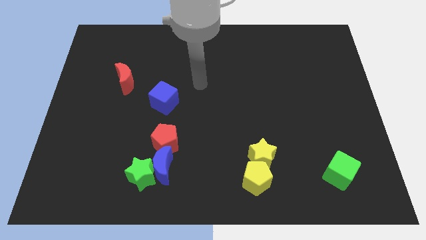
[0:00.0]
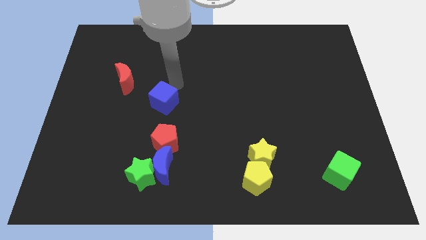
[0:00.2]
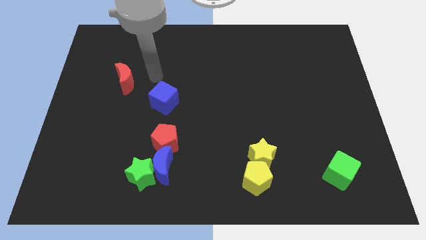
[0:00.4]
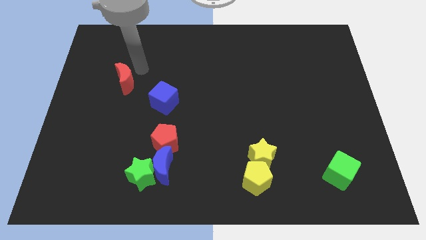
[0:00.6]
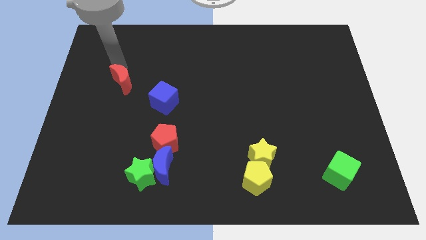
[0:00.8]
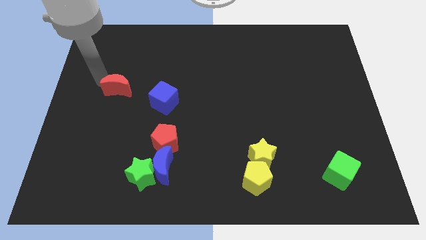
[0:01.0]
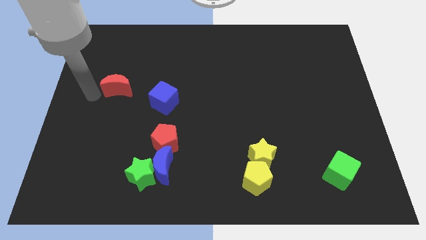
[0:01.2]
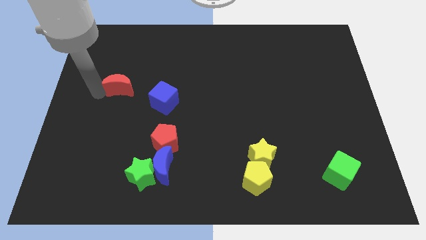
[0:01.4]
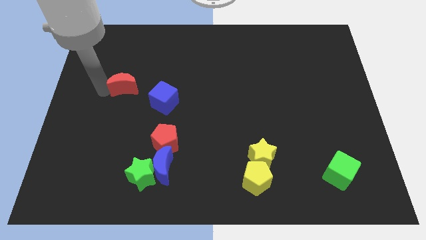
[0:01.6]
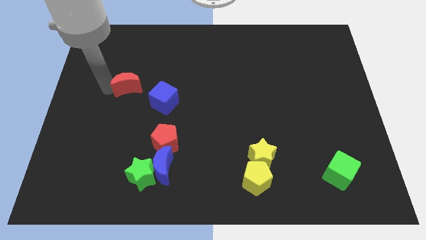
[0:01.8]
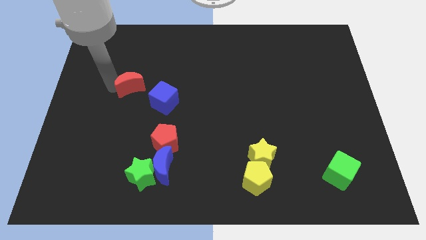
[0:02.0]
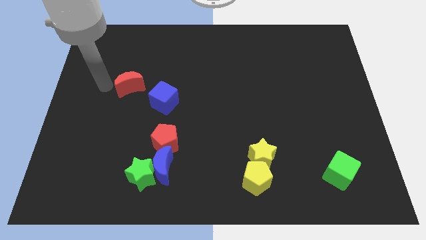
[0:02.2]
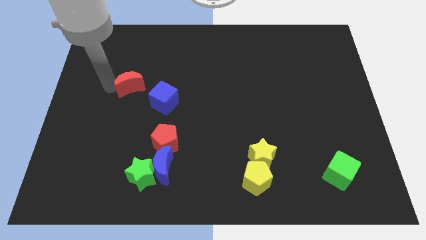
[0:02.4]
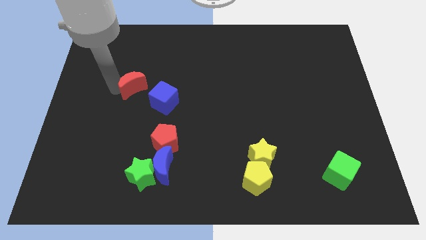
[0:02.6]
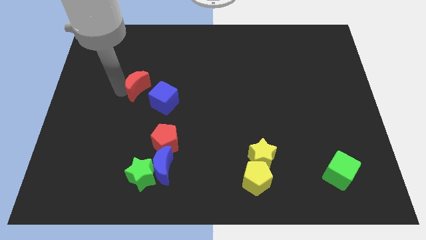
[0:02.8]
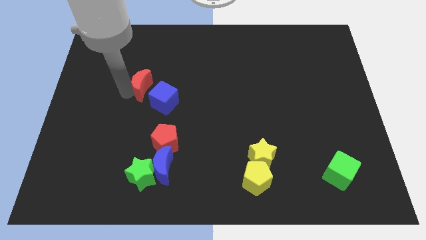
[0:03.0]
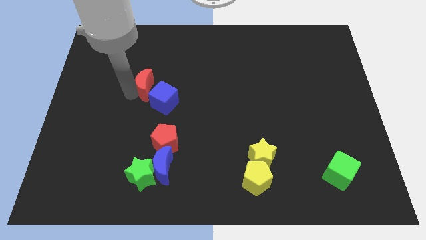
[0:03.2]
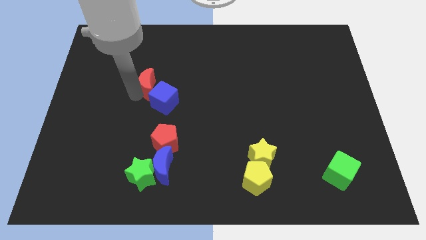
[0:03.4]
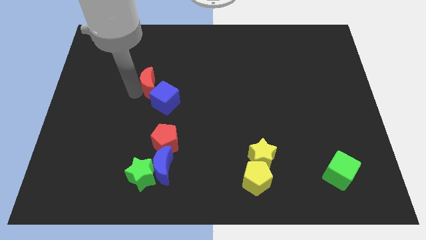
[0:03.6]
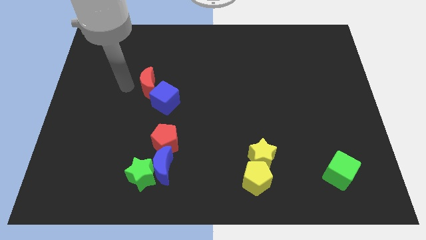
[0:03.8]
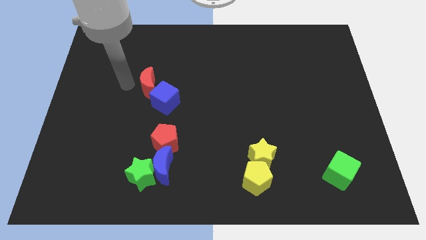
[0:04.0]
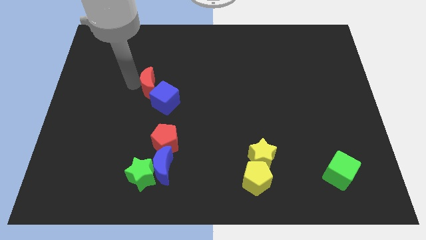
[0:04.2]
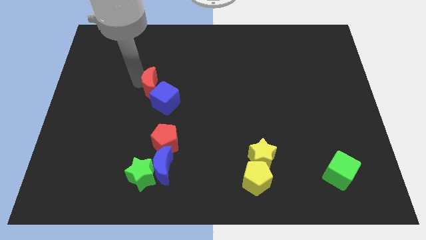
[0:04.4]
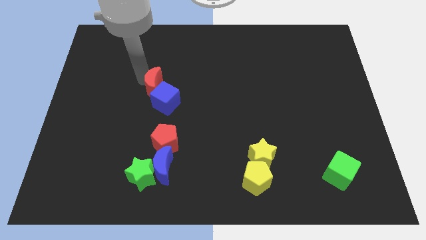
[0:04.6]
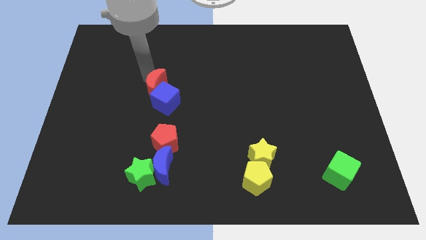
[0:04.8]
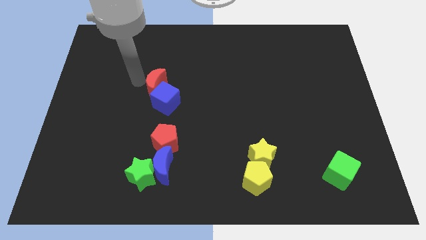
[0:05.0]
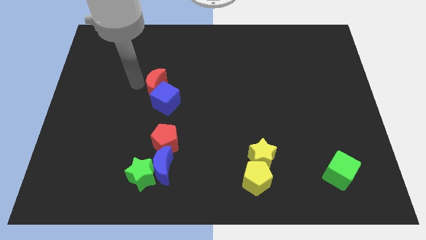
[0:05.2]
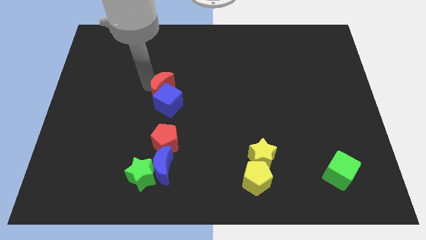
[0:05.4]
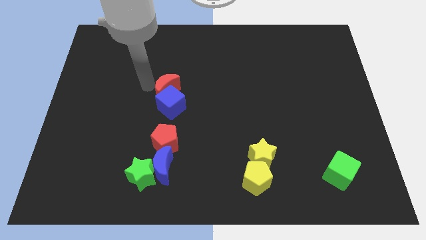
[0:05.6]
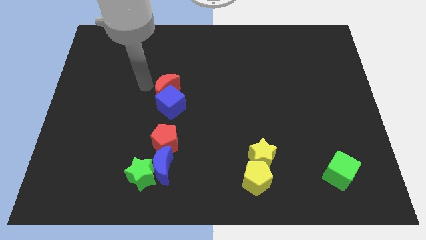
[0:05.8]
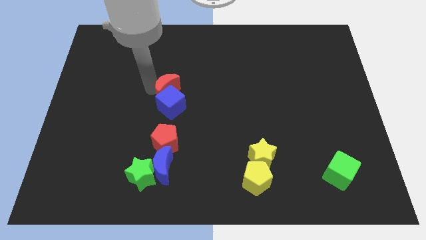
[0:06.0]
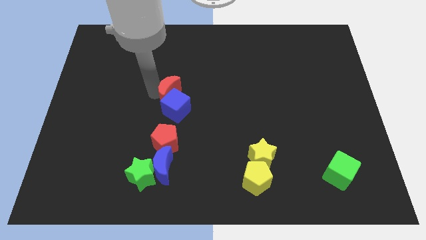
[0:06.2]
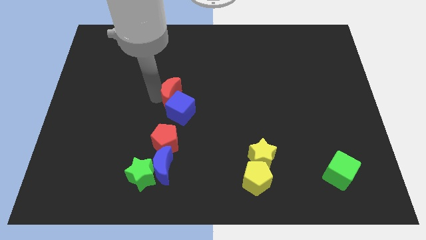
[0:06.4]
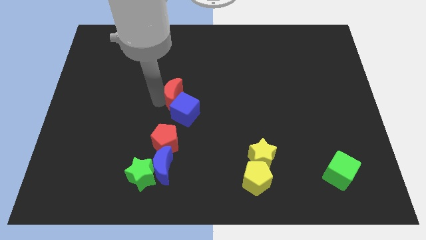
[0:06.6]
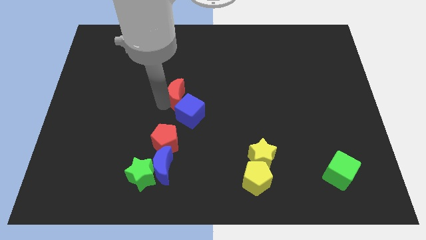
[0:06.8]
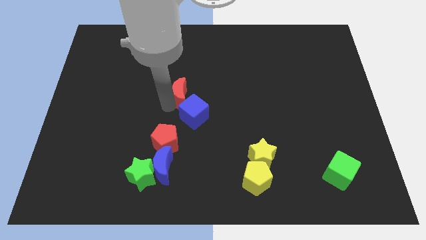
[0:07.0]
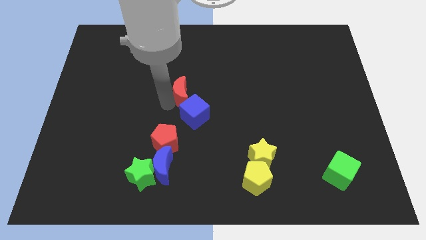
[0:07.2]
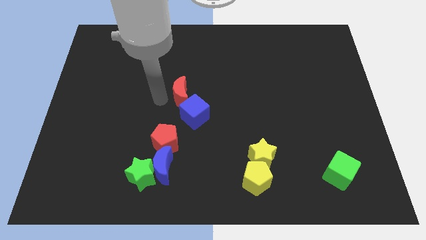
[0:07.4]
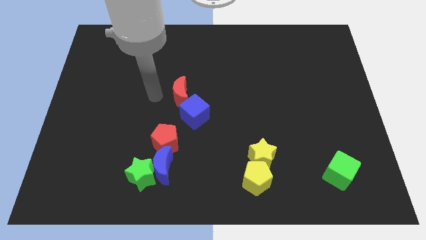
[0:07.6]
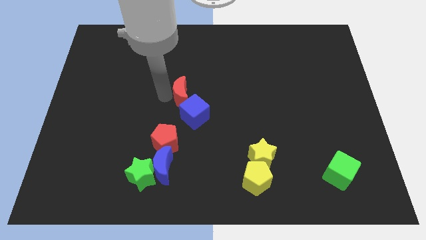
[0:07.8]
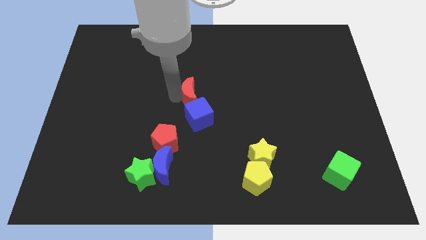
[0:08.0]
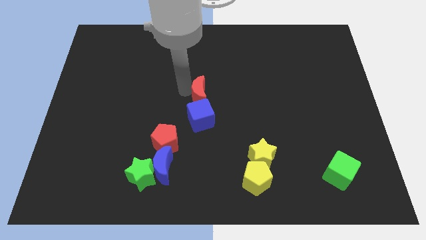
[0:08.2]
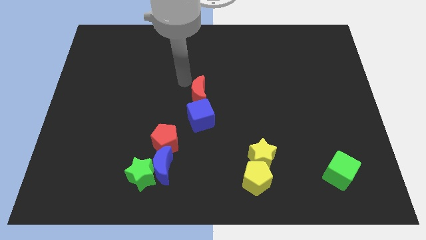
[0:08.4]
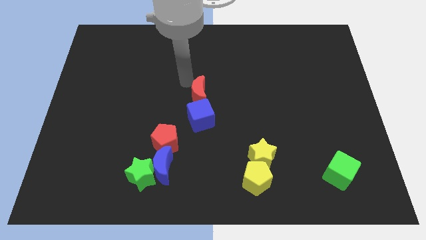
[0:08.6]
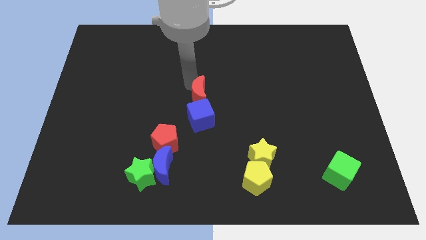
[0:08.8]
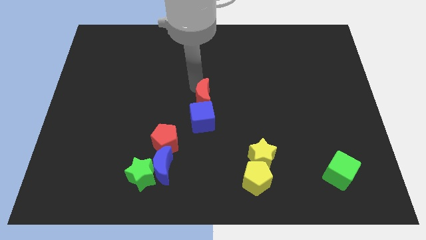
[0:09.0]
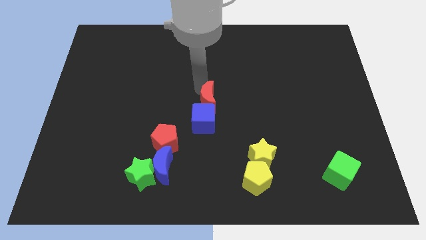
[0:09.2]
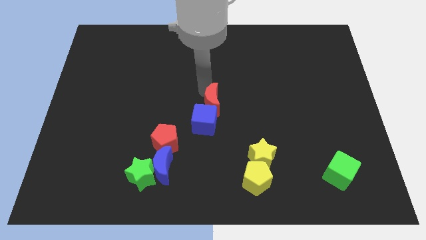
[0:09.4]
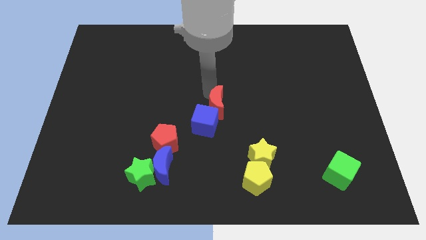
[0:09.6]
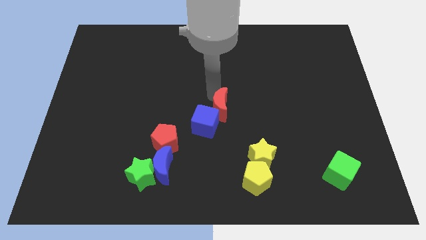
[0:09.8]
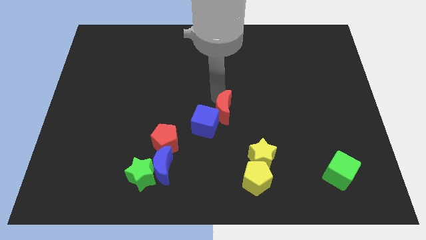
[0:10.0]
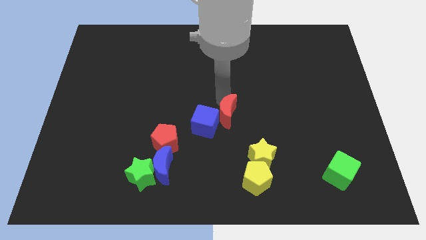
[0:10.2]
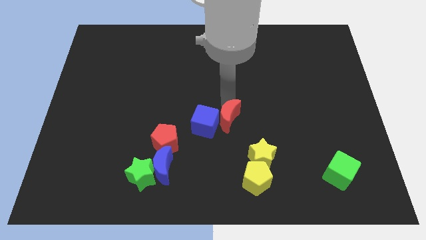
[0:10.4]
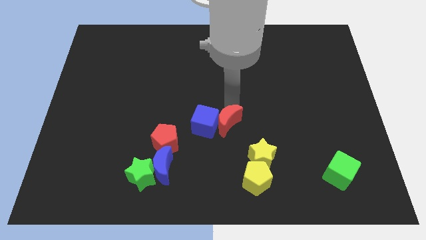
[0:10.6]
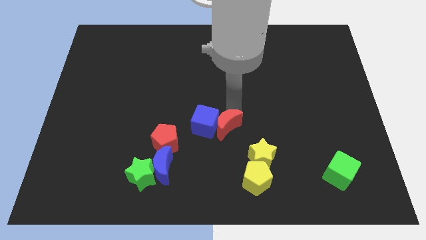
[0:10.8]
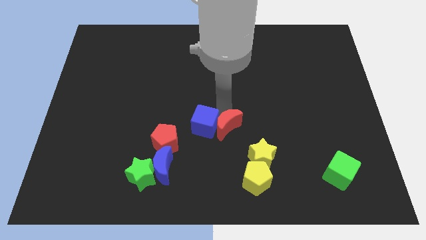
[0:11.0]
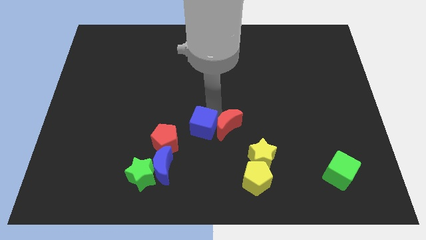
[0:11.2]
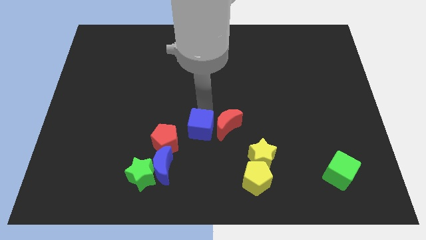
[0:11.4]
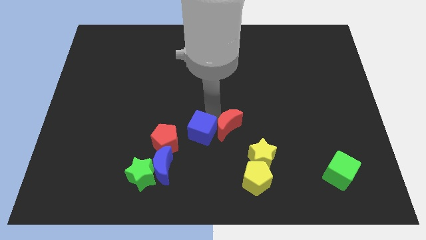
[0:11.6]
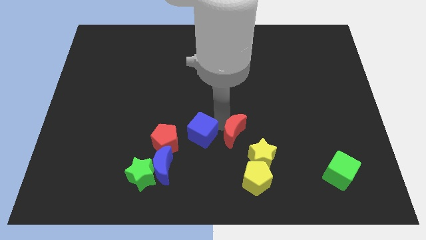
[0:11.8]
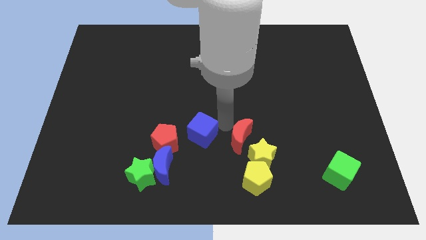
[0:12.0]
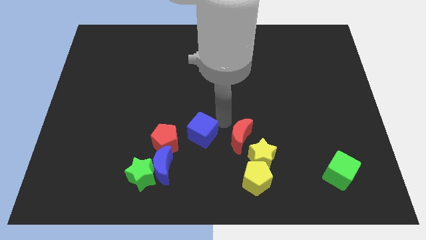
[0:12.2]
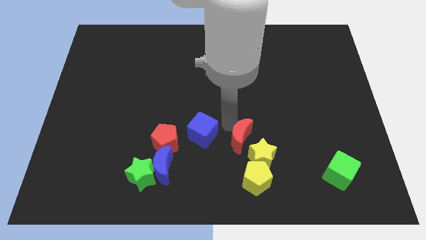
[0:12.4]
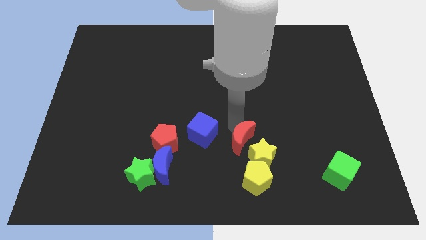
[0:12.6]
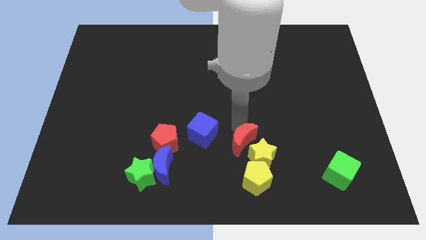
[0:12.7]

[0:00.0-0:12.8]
move the red moon towards the yellow star
